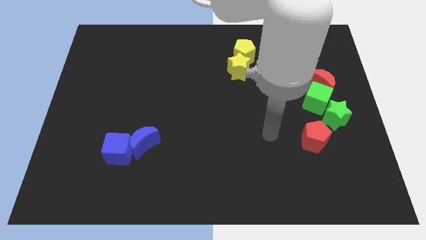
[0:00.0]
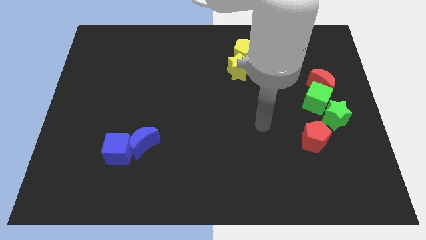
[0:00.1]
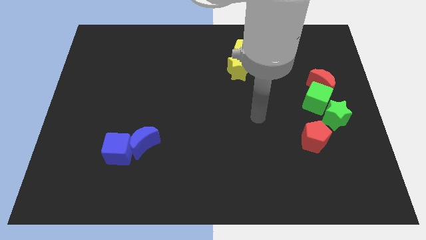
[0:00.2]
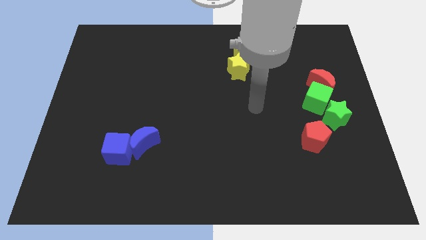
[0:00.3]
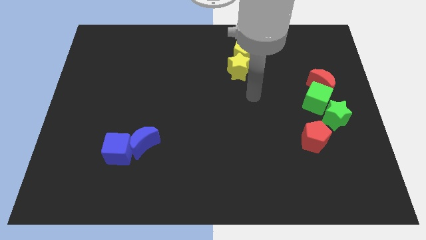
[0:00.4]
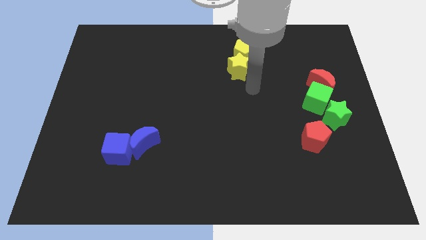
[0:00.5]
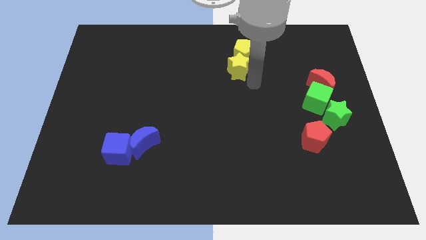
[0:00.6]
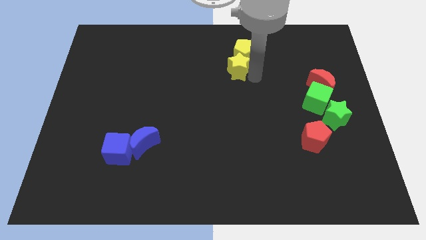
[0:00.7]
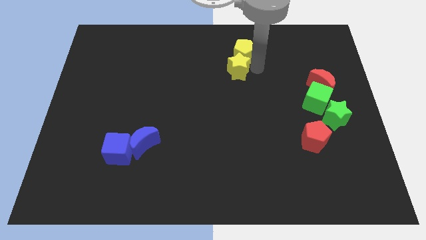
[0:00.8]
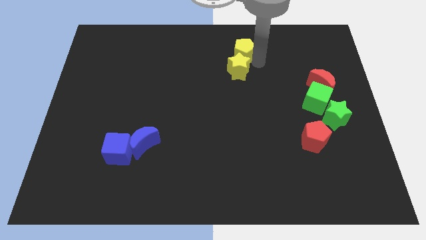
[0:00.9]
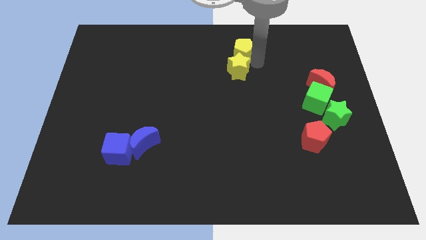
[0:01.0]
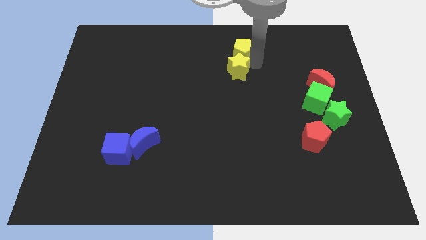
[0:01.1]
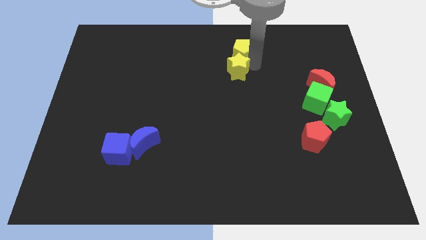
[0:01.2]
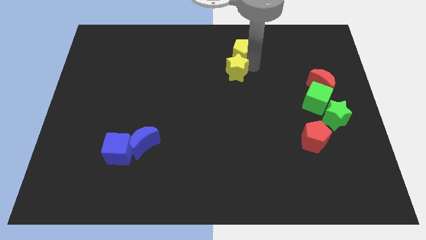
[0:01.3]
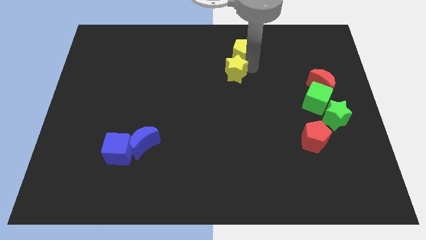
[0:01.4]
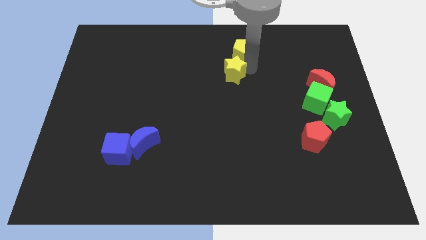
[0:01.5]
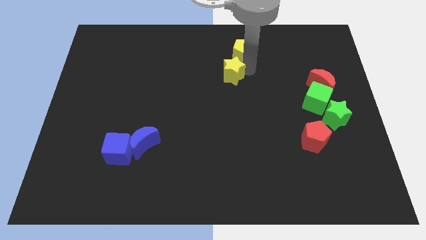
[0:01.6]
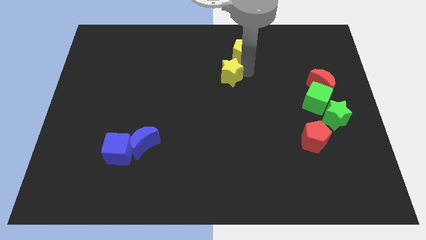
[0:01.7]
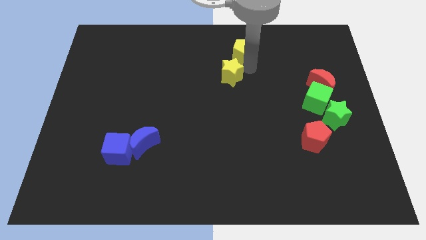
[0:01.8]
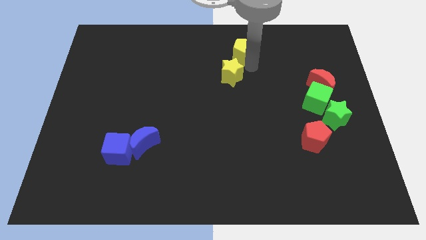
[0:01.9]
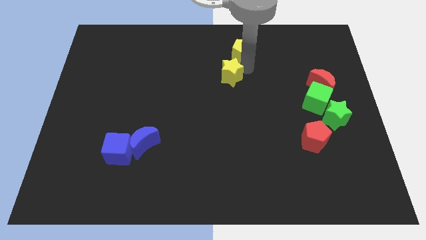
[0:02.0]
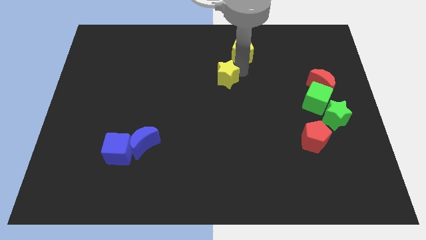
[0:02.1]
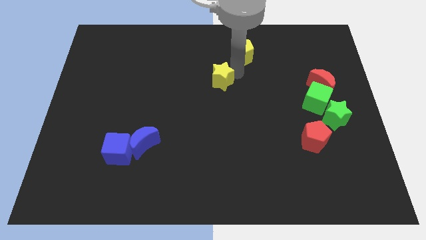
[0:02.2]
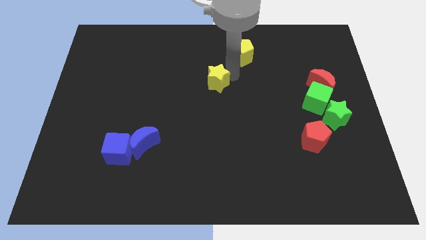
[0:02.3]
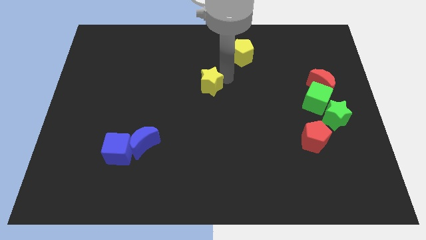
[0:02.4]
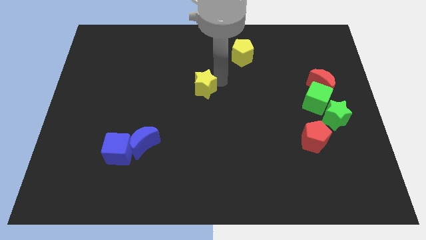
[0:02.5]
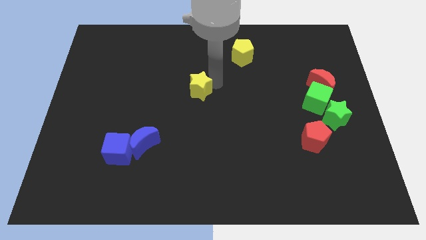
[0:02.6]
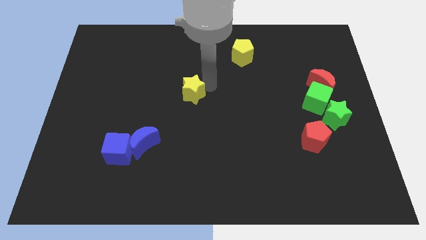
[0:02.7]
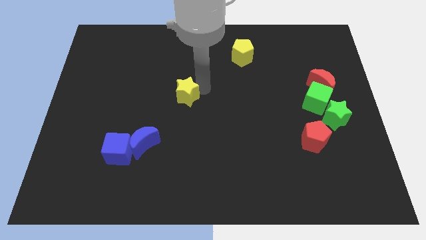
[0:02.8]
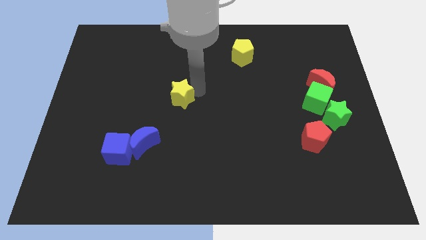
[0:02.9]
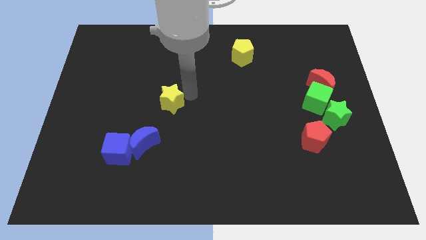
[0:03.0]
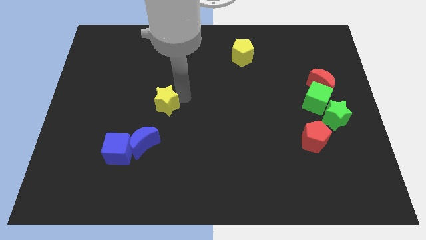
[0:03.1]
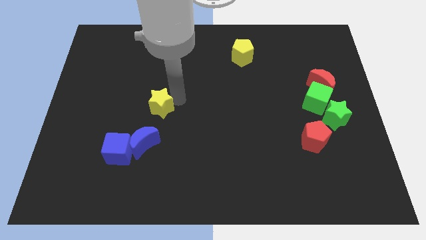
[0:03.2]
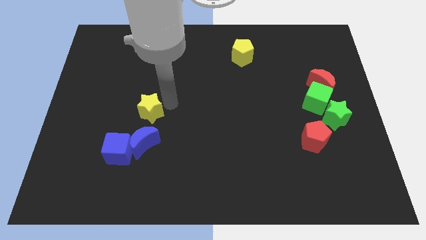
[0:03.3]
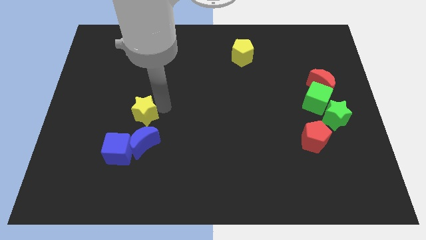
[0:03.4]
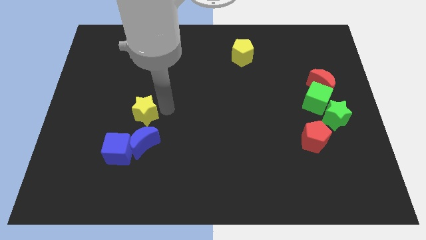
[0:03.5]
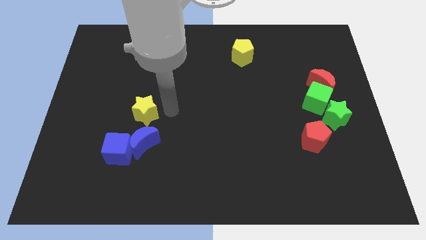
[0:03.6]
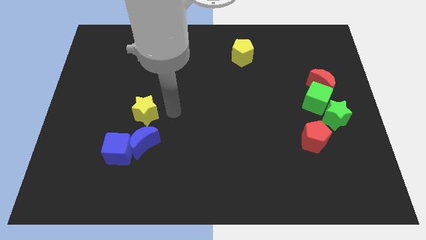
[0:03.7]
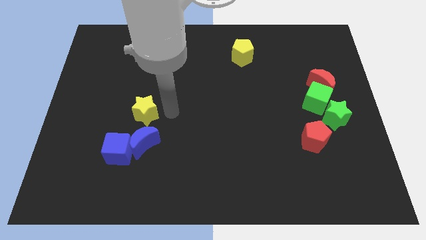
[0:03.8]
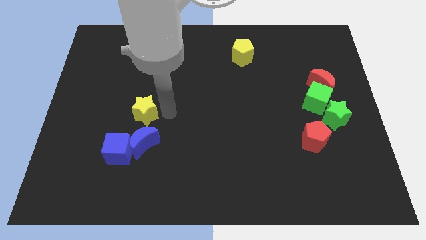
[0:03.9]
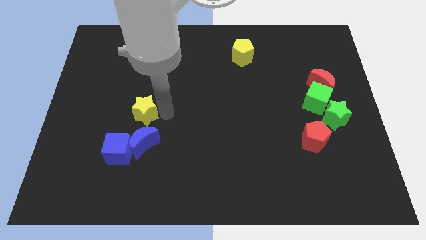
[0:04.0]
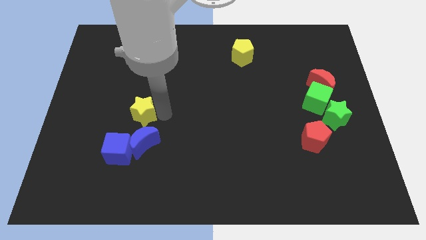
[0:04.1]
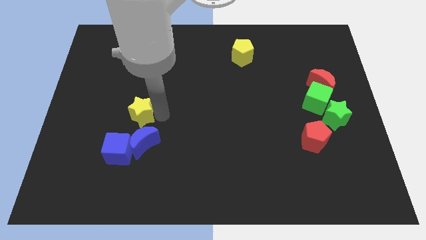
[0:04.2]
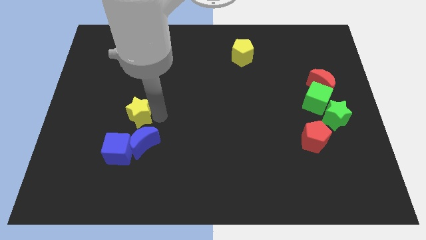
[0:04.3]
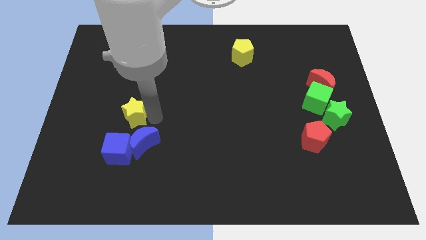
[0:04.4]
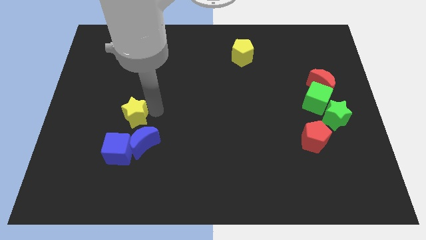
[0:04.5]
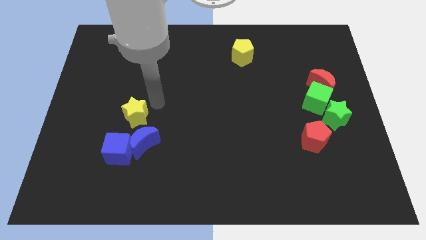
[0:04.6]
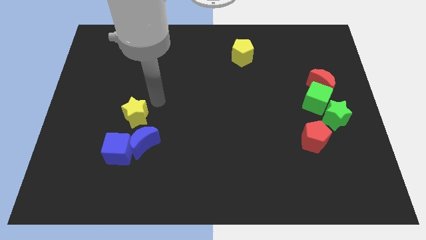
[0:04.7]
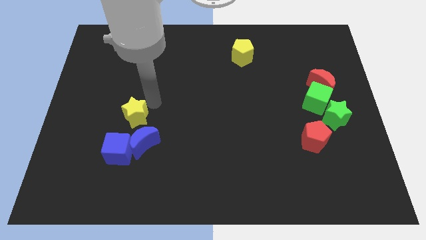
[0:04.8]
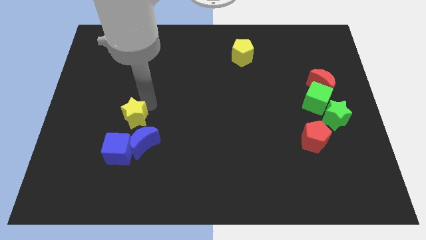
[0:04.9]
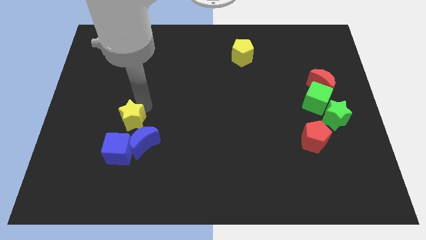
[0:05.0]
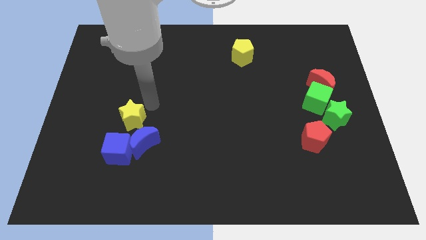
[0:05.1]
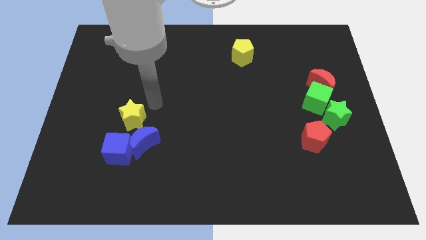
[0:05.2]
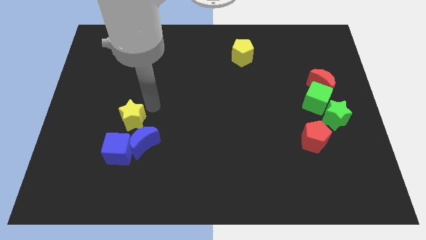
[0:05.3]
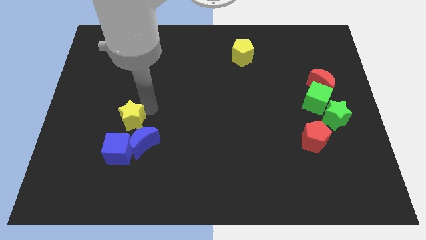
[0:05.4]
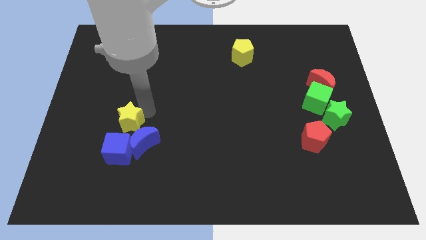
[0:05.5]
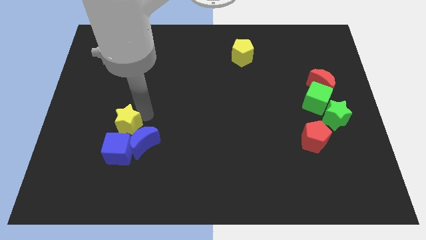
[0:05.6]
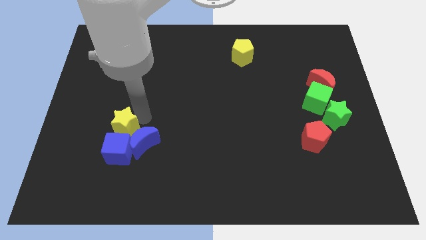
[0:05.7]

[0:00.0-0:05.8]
push the yellow star just left of the blue moon

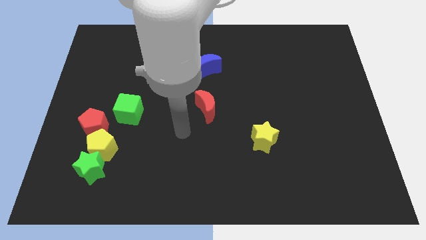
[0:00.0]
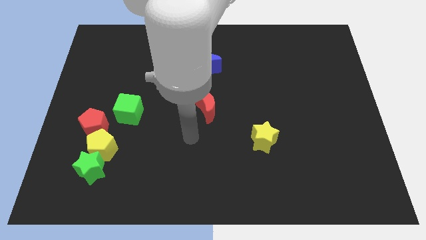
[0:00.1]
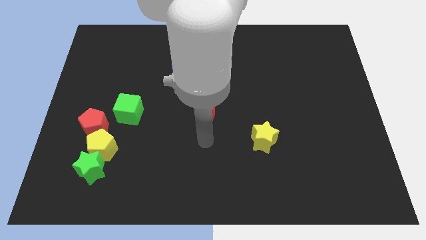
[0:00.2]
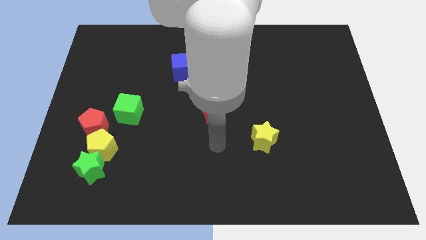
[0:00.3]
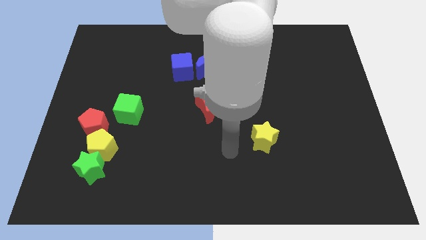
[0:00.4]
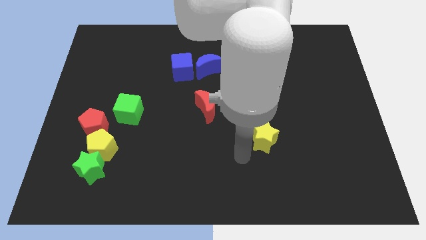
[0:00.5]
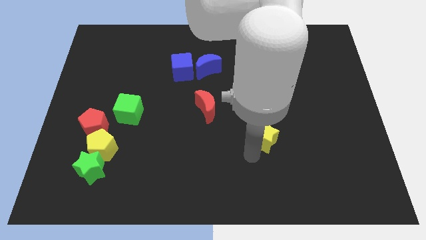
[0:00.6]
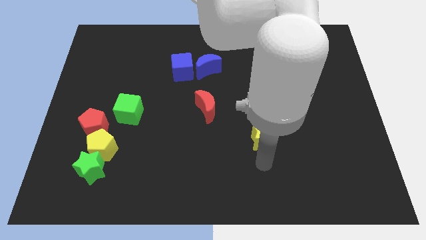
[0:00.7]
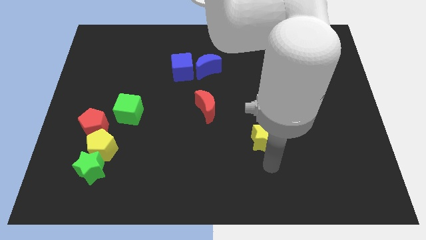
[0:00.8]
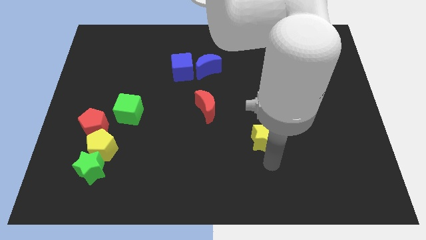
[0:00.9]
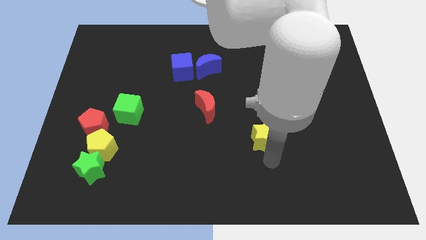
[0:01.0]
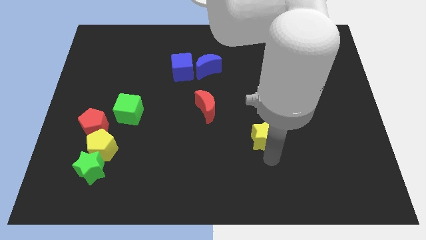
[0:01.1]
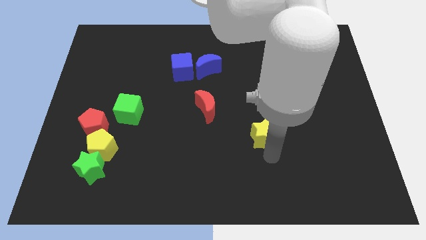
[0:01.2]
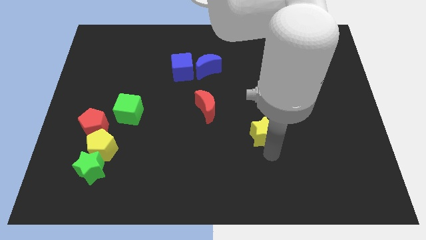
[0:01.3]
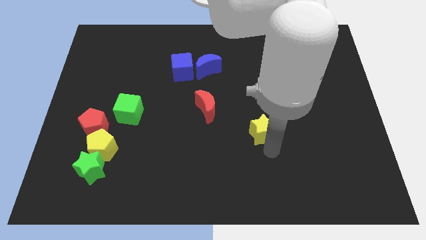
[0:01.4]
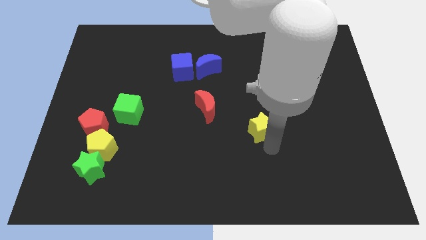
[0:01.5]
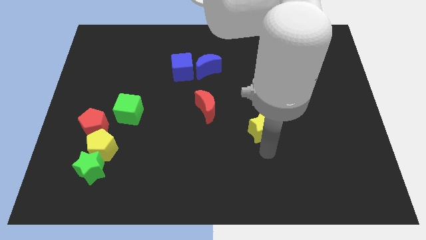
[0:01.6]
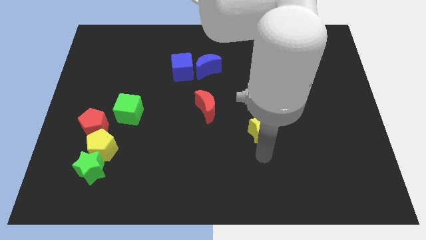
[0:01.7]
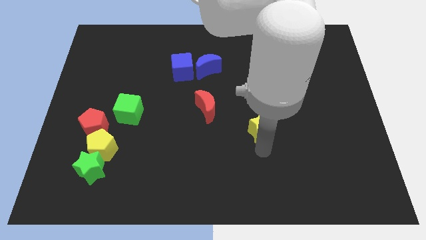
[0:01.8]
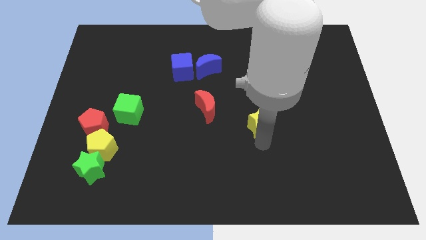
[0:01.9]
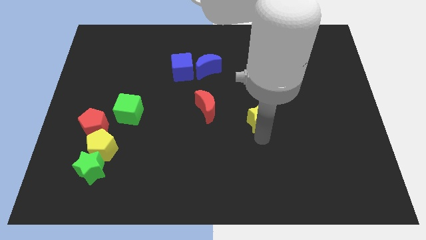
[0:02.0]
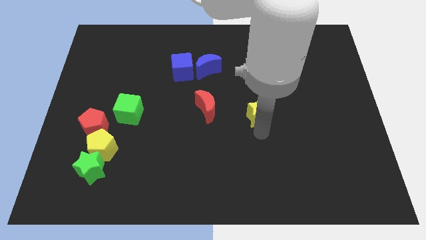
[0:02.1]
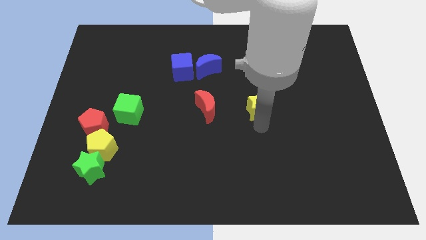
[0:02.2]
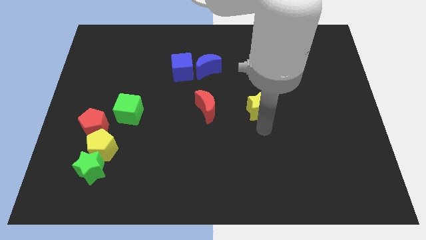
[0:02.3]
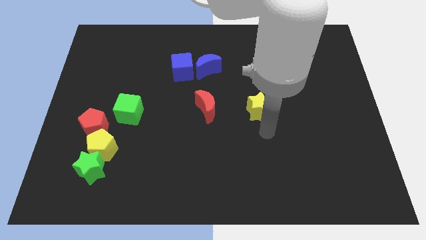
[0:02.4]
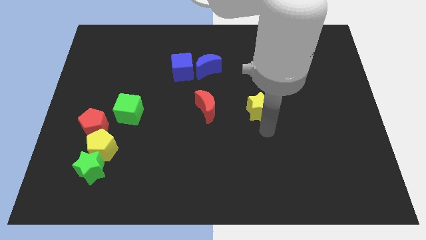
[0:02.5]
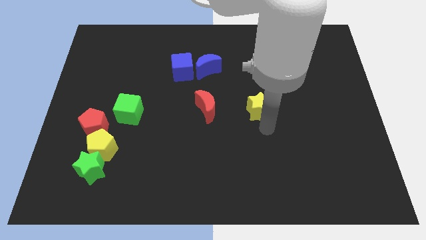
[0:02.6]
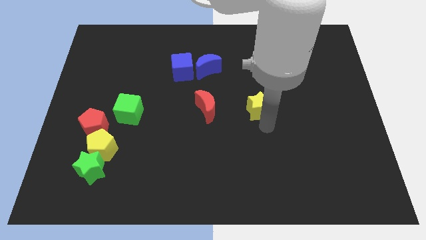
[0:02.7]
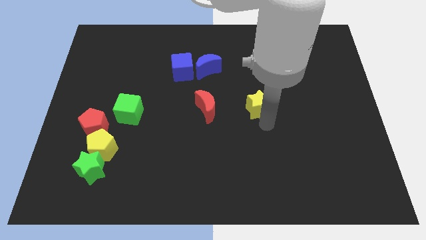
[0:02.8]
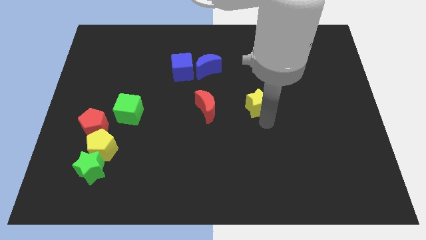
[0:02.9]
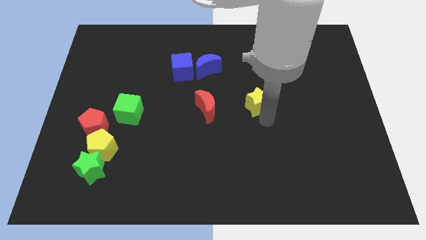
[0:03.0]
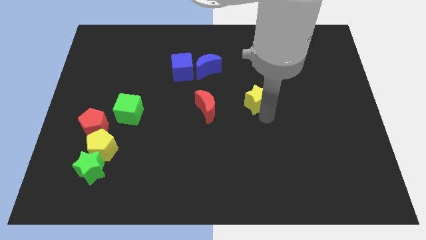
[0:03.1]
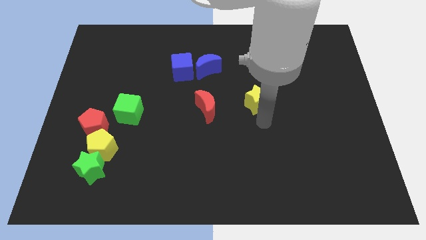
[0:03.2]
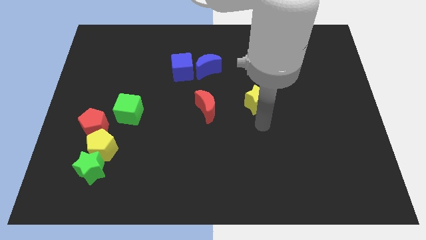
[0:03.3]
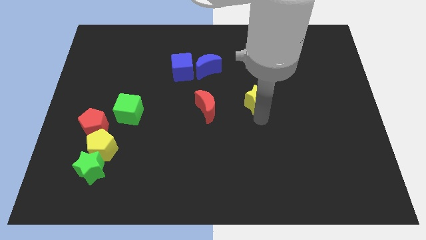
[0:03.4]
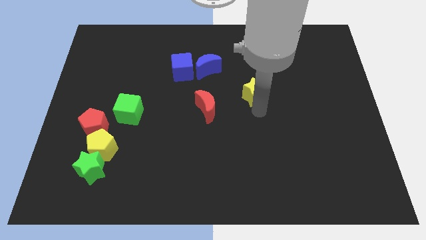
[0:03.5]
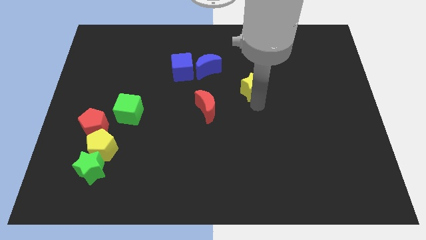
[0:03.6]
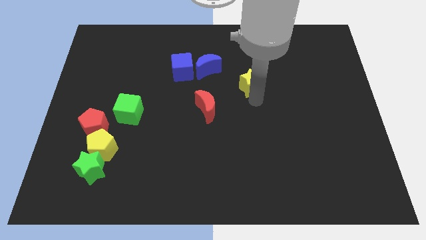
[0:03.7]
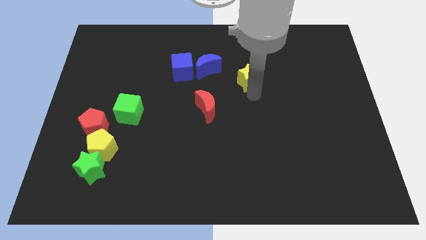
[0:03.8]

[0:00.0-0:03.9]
put the yellow star to the right of the blue moon
